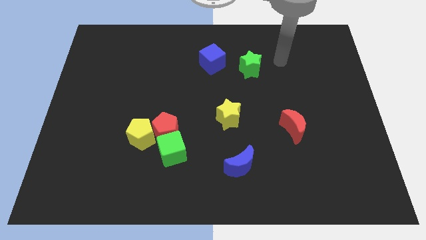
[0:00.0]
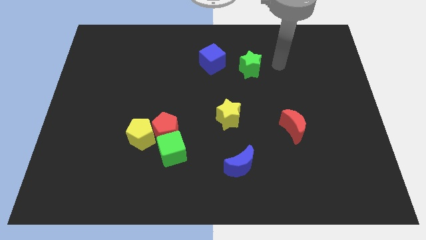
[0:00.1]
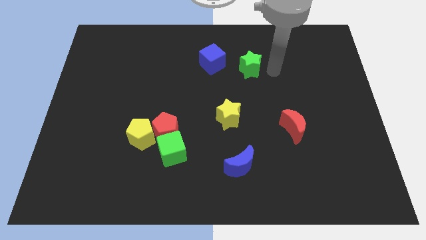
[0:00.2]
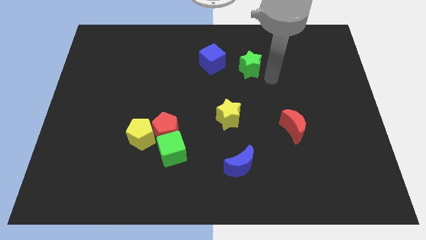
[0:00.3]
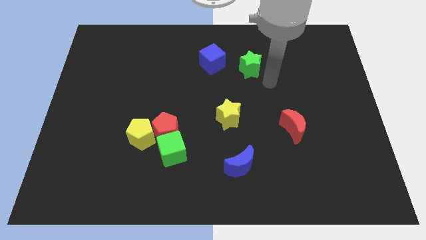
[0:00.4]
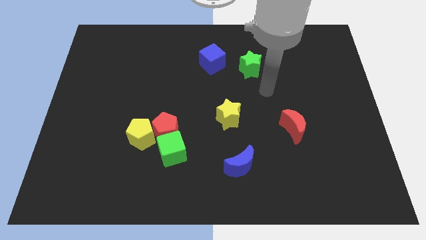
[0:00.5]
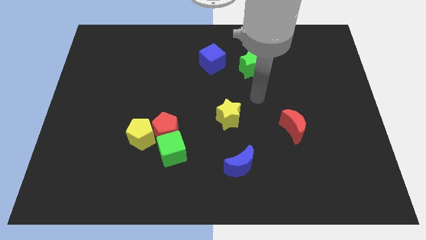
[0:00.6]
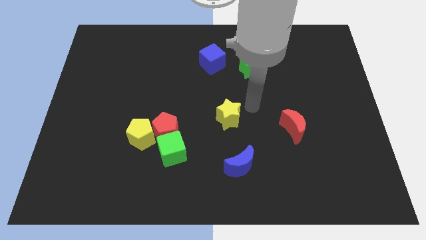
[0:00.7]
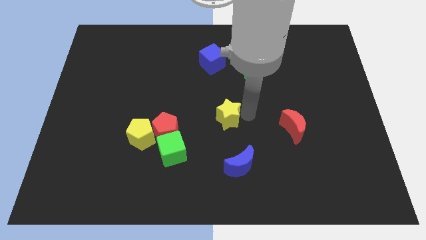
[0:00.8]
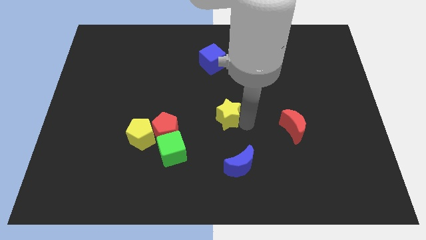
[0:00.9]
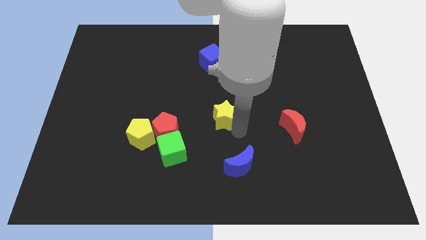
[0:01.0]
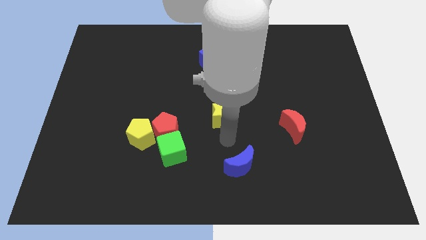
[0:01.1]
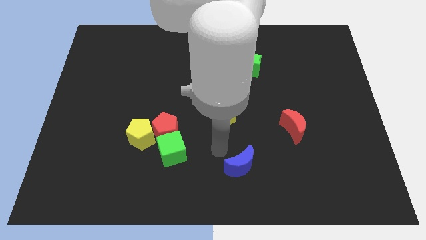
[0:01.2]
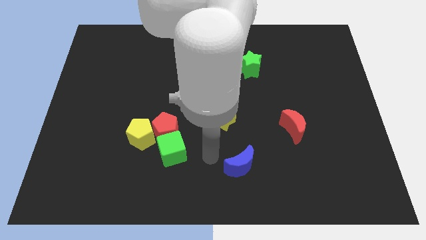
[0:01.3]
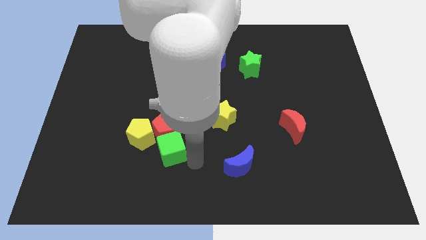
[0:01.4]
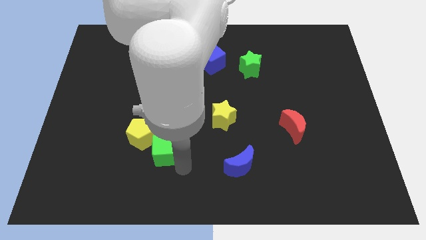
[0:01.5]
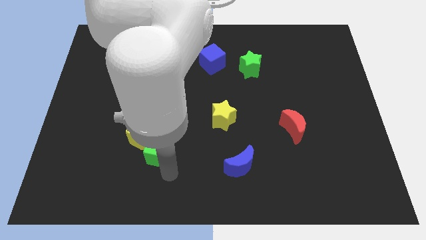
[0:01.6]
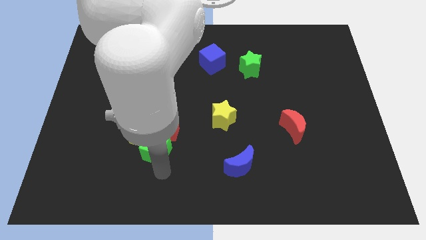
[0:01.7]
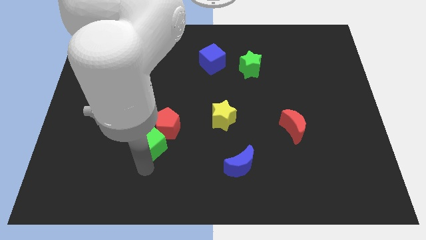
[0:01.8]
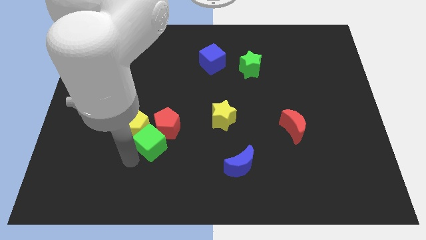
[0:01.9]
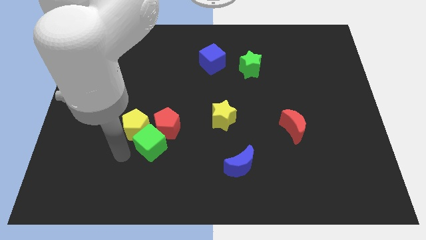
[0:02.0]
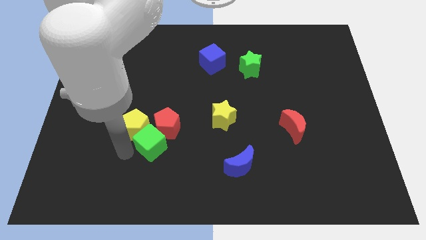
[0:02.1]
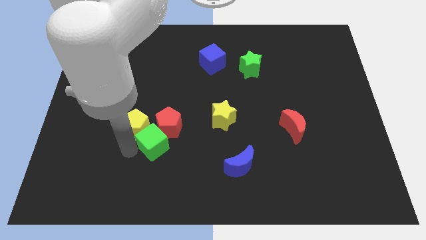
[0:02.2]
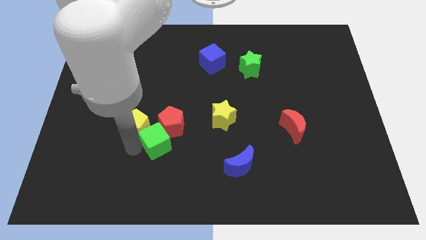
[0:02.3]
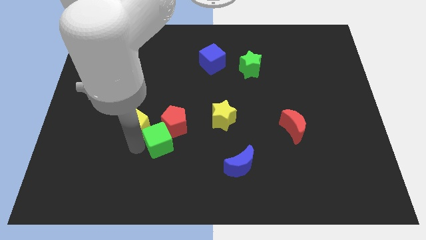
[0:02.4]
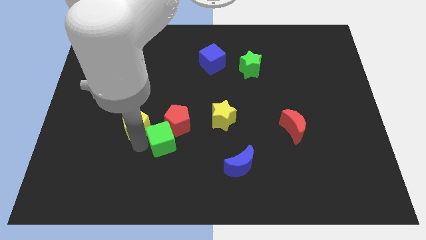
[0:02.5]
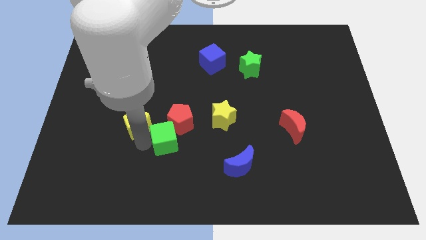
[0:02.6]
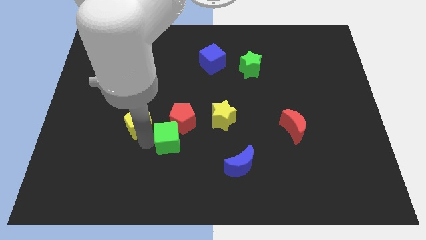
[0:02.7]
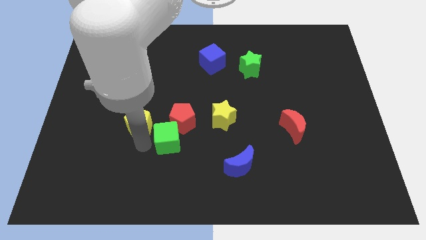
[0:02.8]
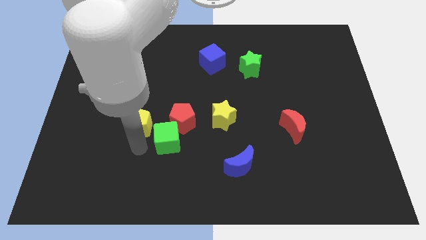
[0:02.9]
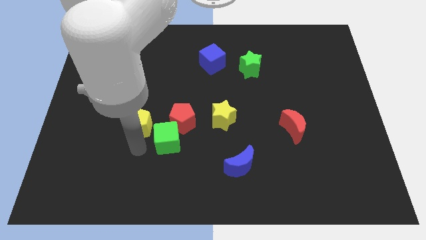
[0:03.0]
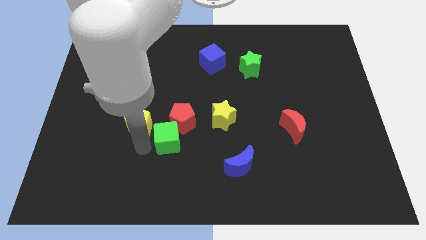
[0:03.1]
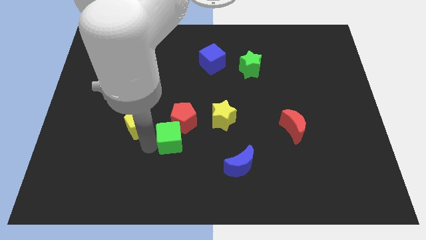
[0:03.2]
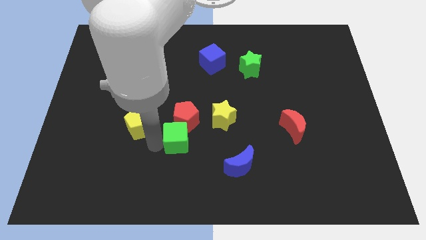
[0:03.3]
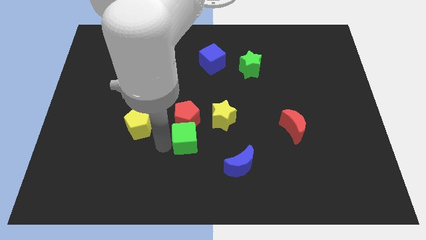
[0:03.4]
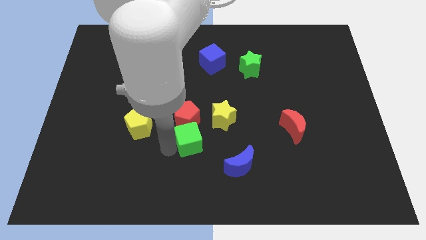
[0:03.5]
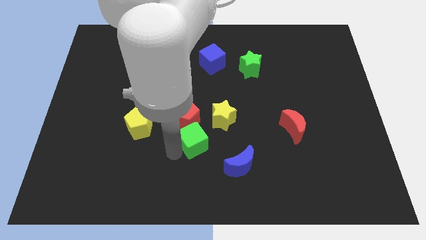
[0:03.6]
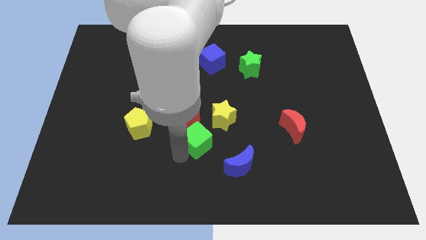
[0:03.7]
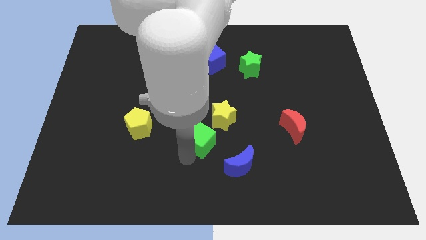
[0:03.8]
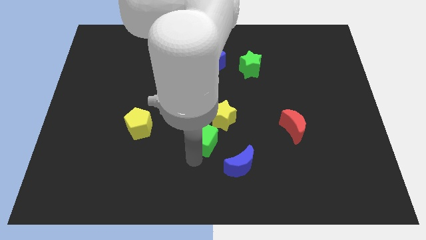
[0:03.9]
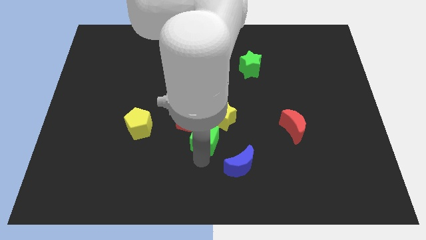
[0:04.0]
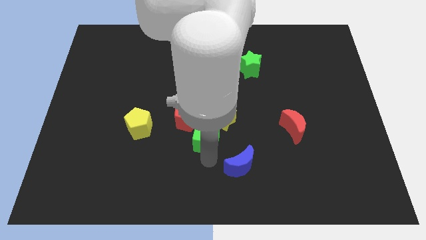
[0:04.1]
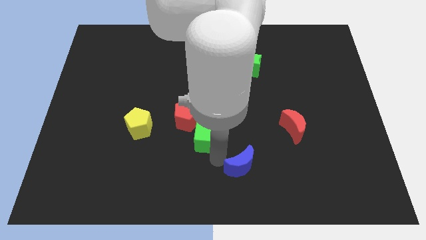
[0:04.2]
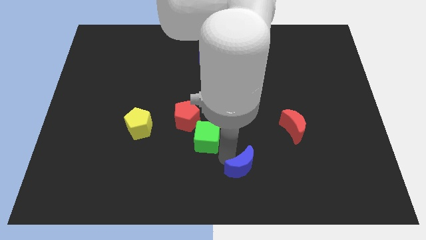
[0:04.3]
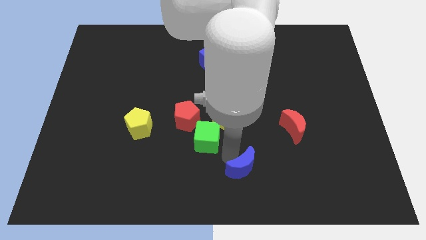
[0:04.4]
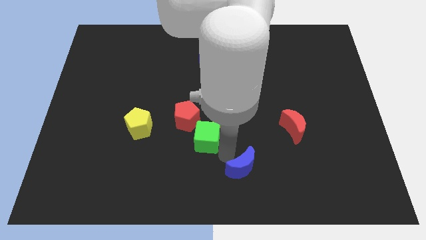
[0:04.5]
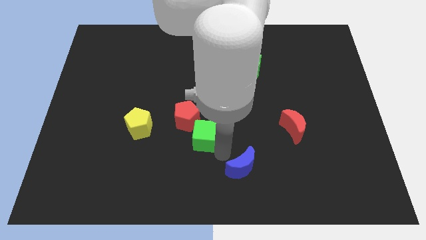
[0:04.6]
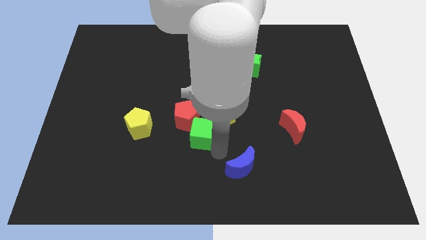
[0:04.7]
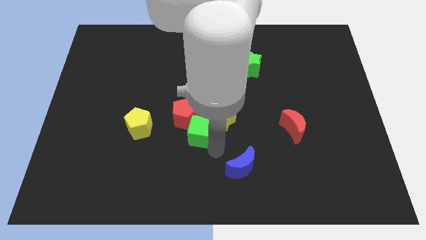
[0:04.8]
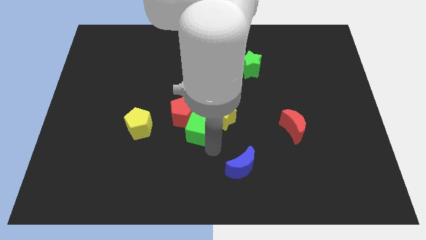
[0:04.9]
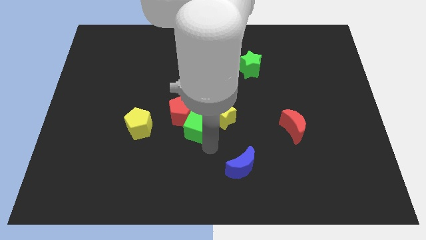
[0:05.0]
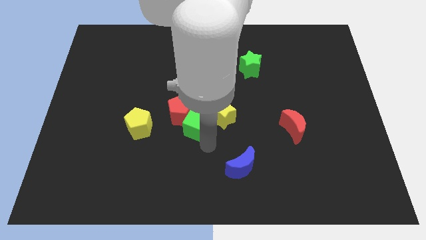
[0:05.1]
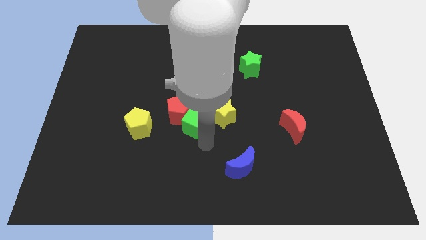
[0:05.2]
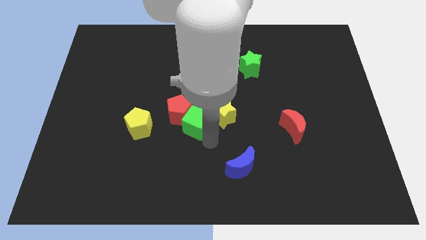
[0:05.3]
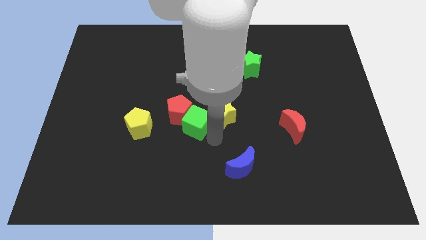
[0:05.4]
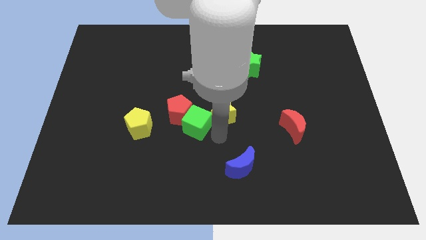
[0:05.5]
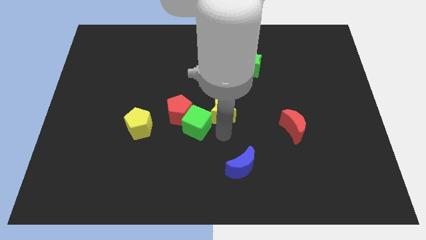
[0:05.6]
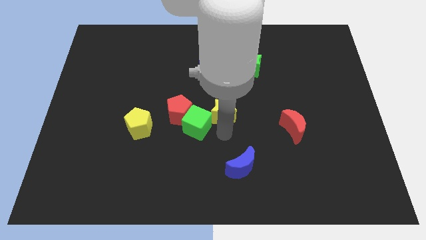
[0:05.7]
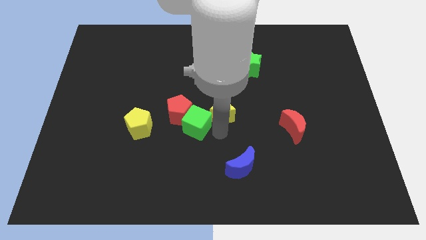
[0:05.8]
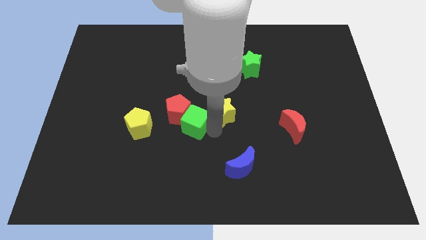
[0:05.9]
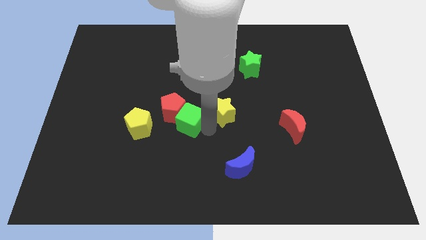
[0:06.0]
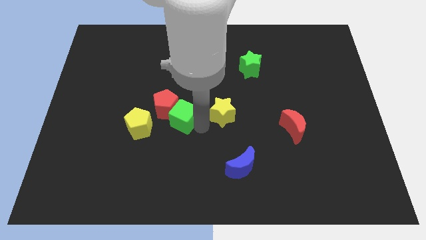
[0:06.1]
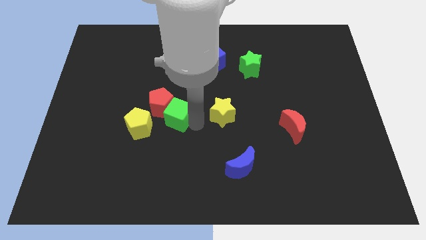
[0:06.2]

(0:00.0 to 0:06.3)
slide the green cube to the top right side of the yellow pentagon
